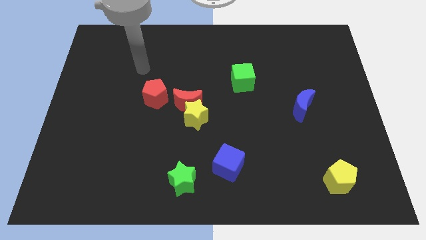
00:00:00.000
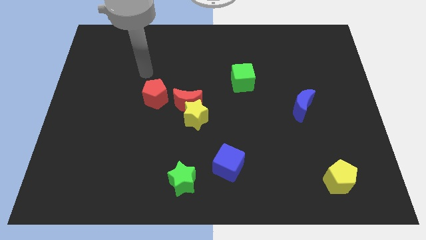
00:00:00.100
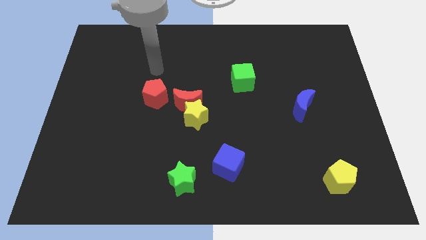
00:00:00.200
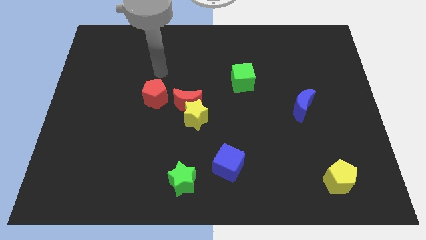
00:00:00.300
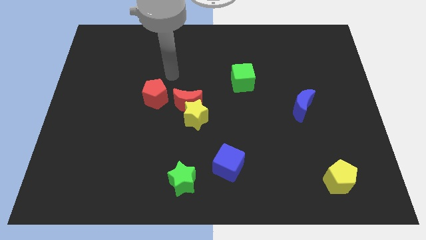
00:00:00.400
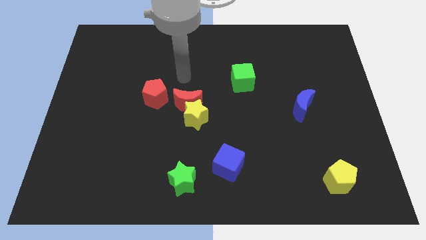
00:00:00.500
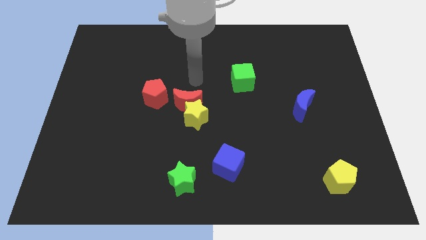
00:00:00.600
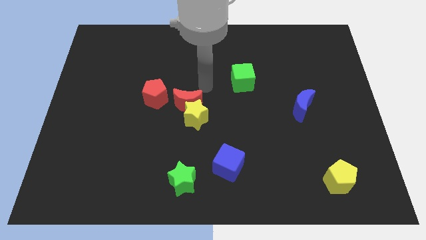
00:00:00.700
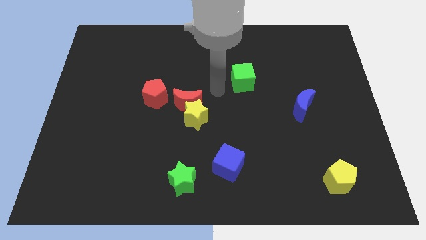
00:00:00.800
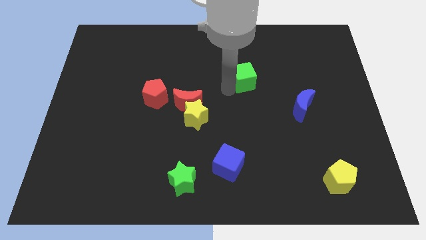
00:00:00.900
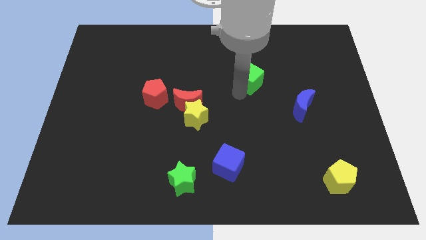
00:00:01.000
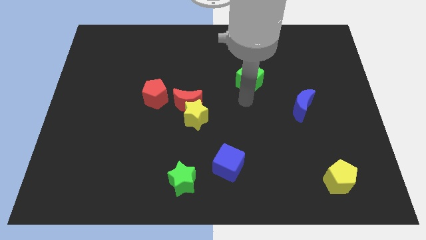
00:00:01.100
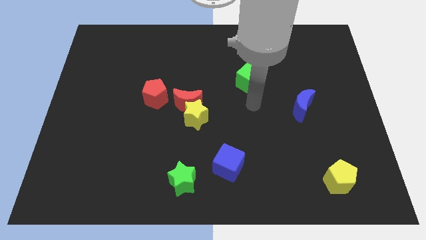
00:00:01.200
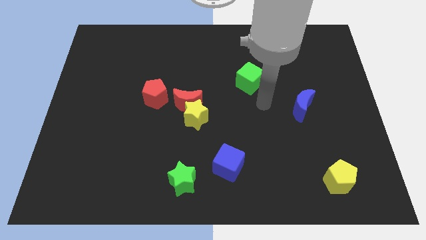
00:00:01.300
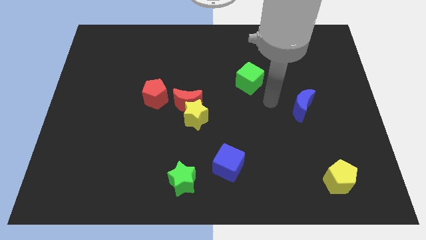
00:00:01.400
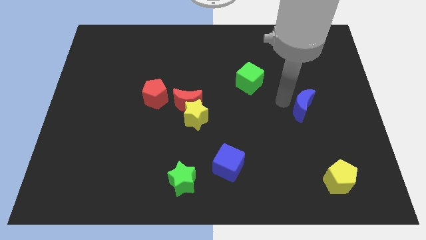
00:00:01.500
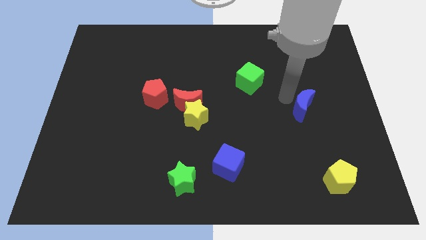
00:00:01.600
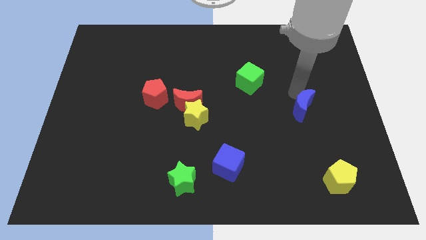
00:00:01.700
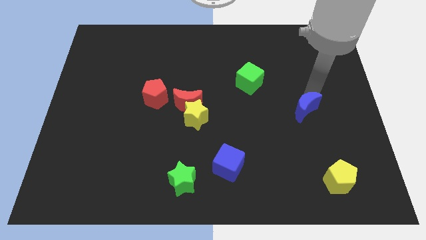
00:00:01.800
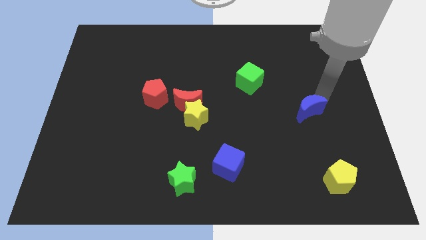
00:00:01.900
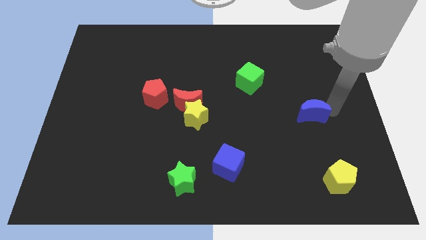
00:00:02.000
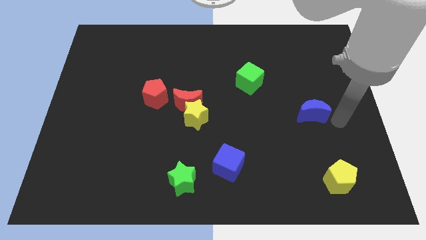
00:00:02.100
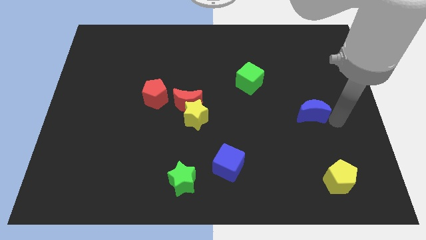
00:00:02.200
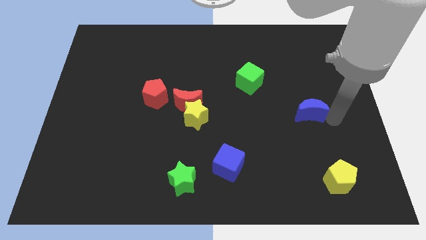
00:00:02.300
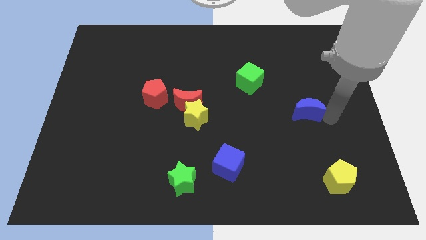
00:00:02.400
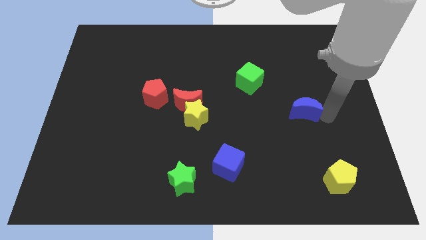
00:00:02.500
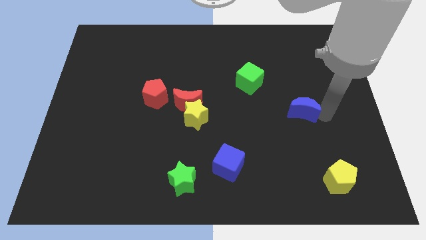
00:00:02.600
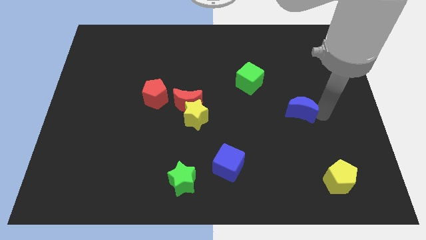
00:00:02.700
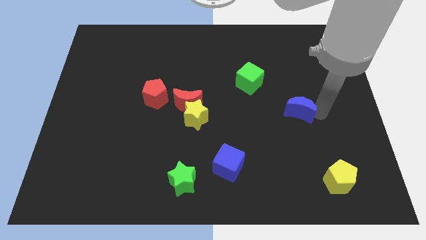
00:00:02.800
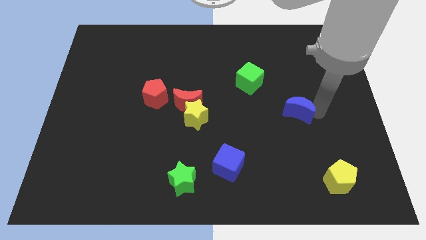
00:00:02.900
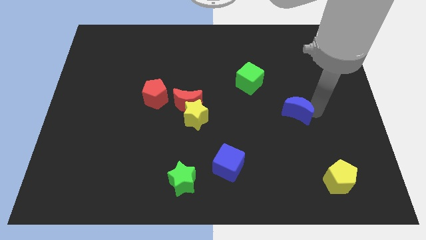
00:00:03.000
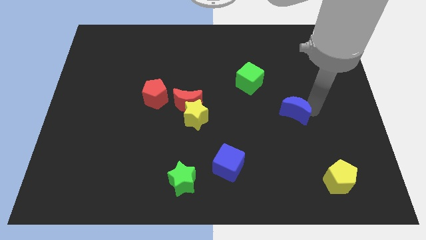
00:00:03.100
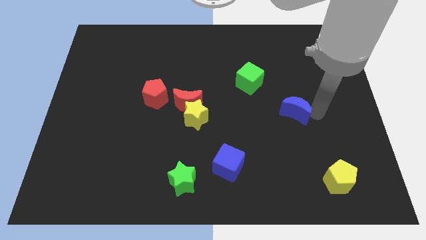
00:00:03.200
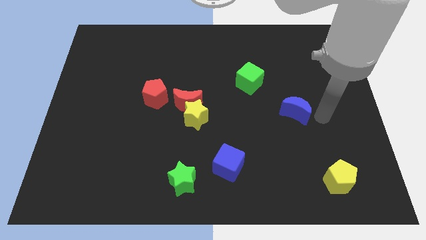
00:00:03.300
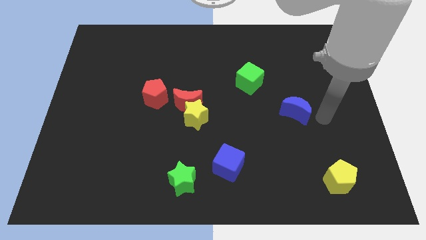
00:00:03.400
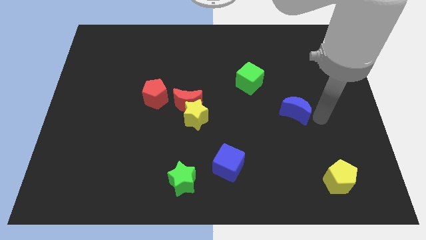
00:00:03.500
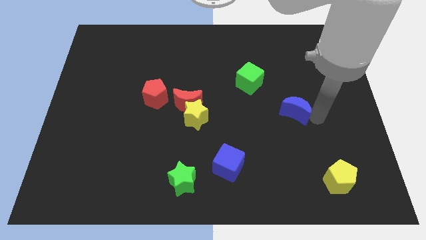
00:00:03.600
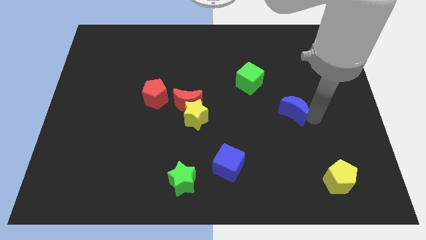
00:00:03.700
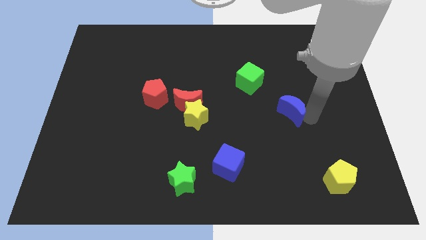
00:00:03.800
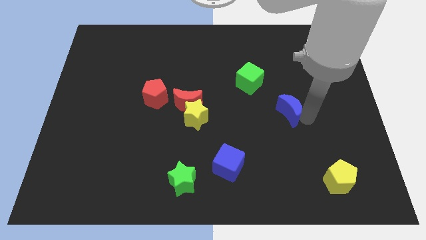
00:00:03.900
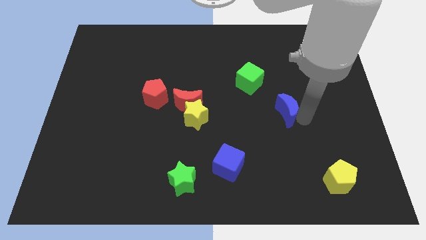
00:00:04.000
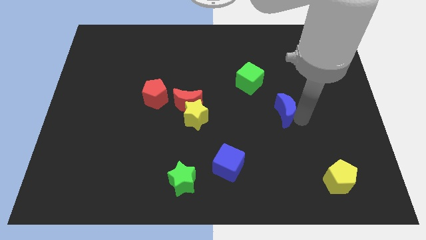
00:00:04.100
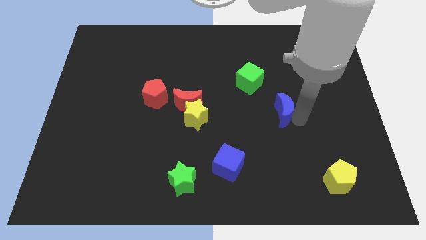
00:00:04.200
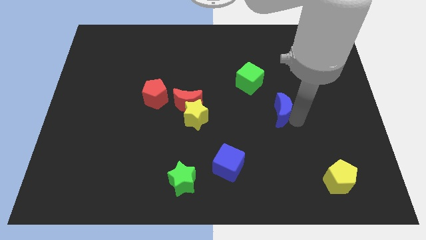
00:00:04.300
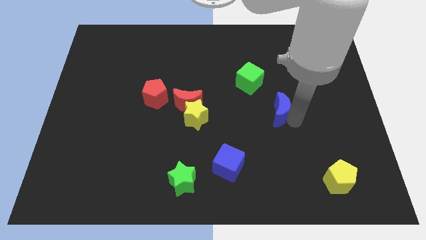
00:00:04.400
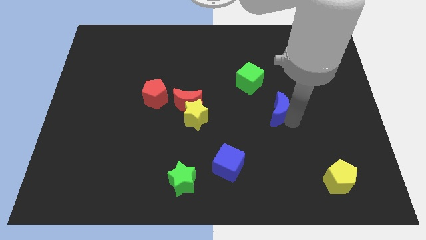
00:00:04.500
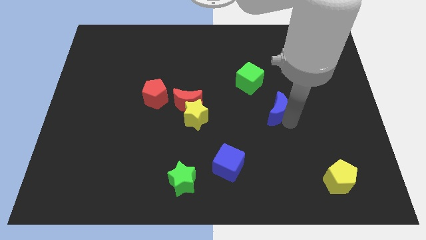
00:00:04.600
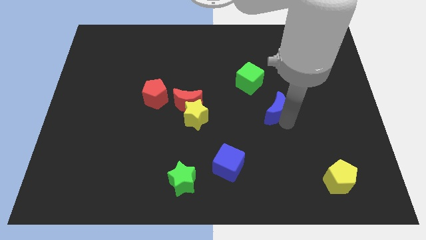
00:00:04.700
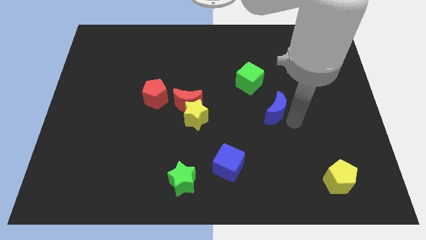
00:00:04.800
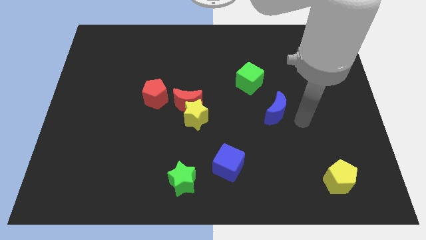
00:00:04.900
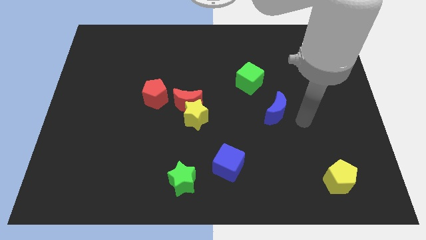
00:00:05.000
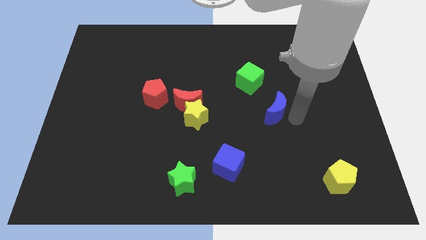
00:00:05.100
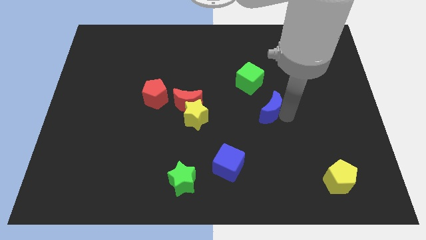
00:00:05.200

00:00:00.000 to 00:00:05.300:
push the blue moon left a little

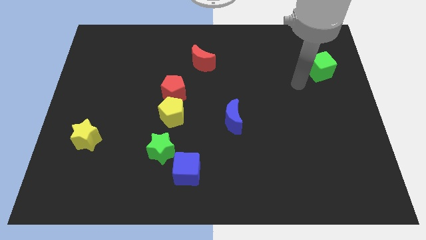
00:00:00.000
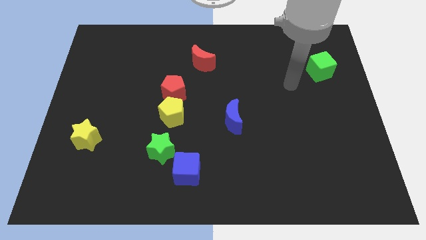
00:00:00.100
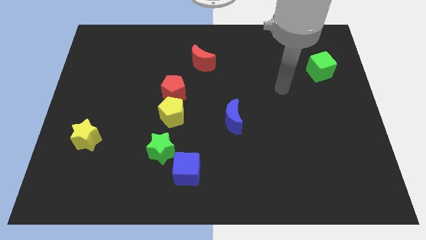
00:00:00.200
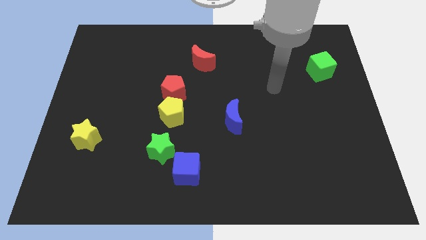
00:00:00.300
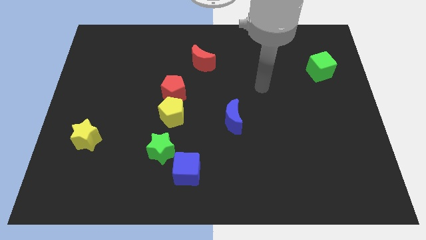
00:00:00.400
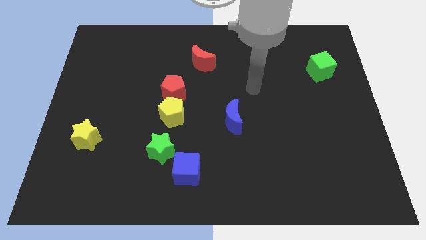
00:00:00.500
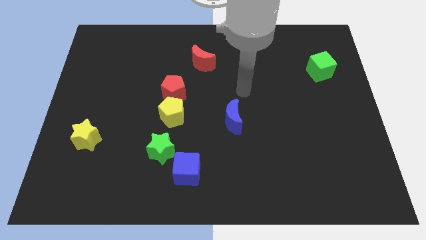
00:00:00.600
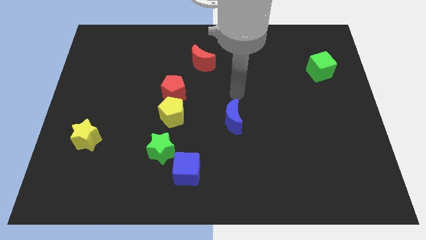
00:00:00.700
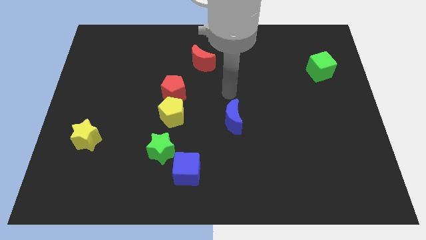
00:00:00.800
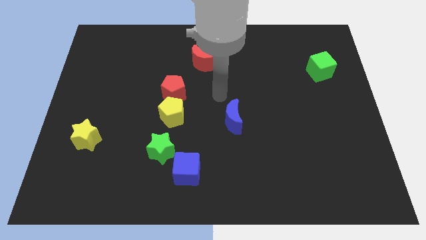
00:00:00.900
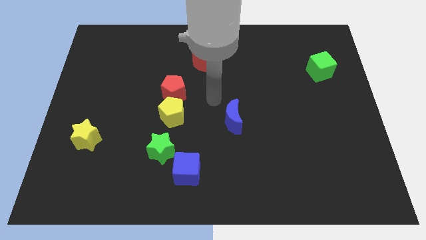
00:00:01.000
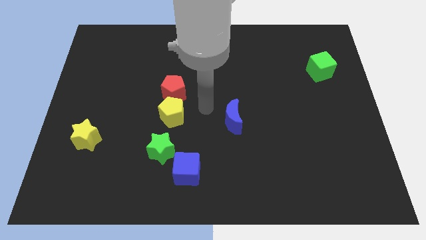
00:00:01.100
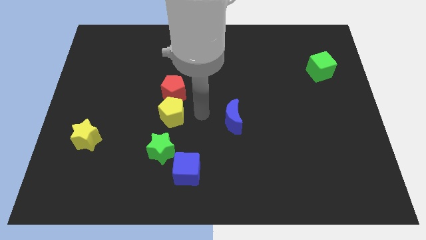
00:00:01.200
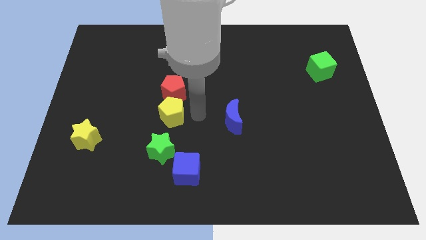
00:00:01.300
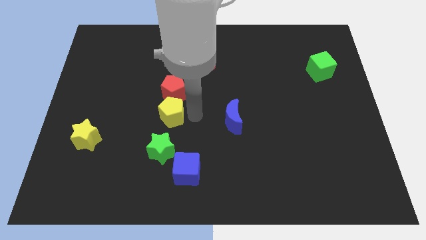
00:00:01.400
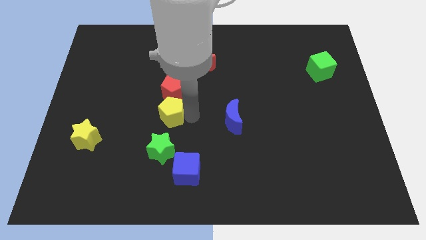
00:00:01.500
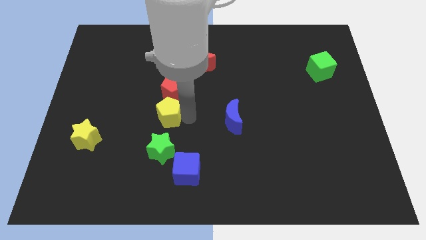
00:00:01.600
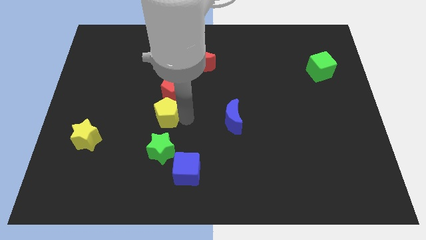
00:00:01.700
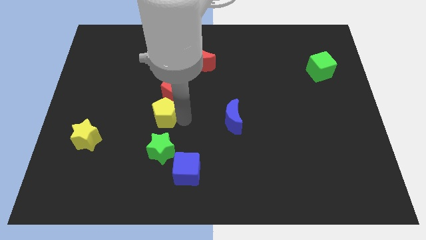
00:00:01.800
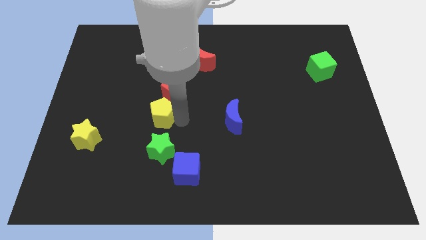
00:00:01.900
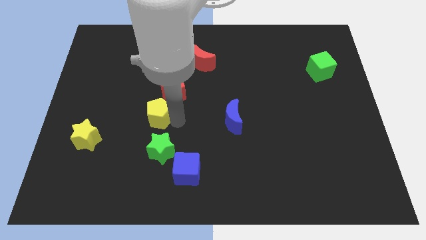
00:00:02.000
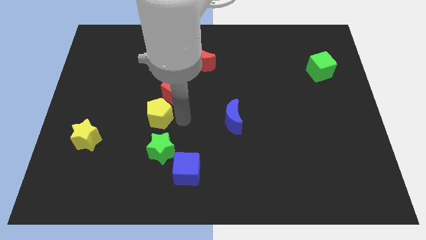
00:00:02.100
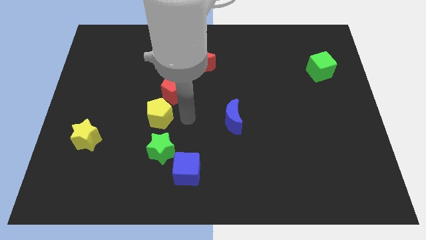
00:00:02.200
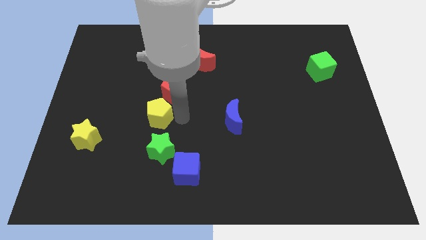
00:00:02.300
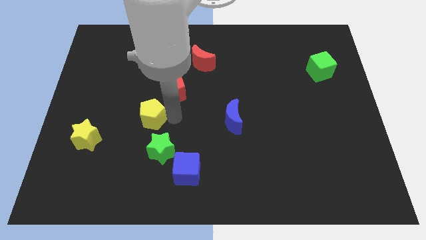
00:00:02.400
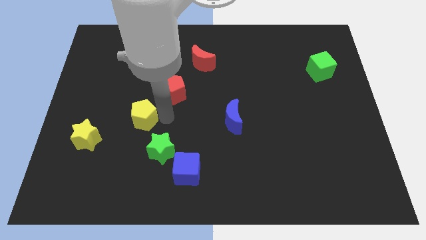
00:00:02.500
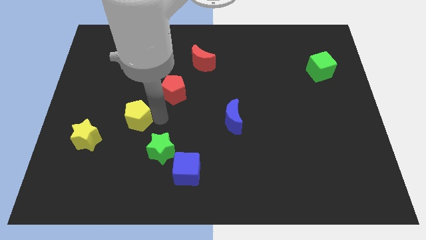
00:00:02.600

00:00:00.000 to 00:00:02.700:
move the yellow pentagon left somewhat
